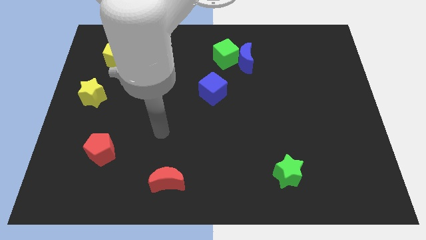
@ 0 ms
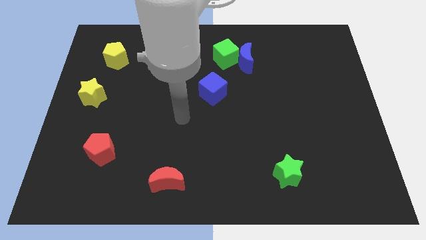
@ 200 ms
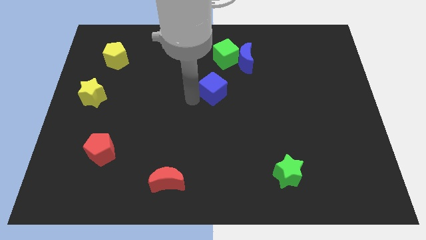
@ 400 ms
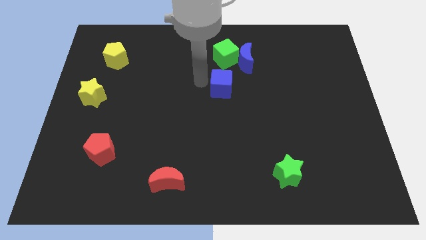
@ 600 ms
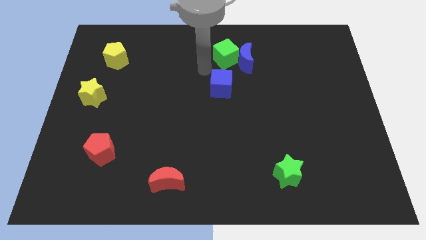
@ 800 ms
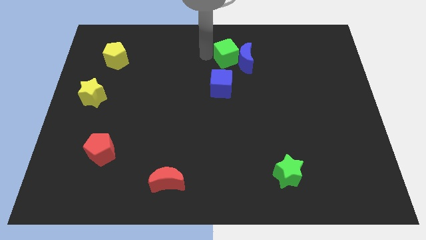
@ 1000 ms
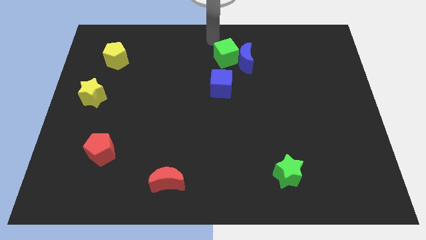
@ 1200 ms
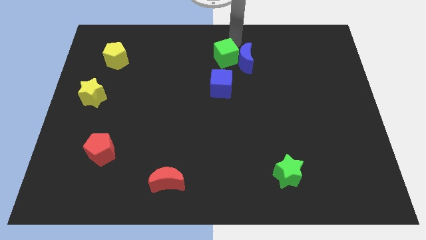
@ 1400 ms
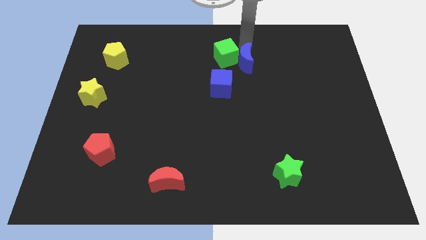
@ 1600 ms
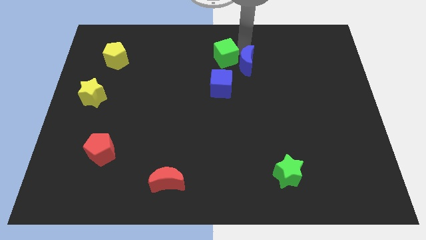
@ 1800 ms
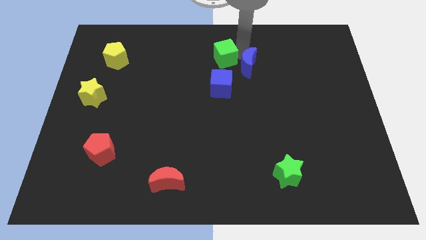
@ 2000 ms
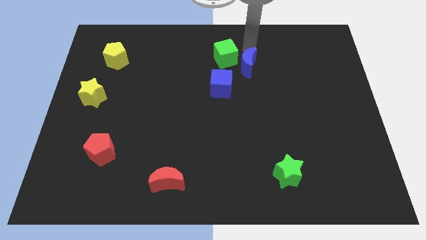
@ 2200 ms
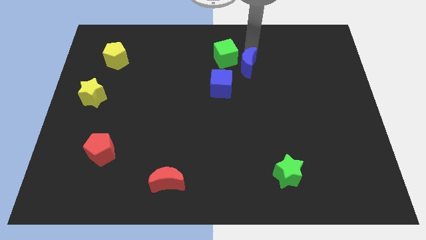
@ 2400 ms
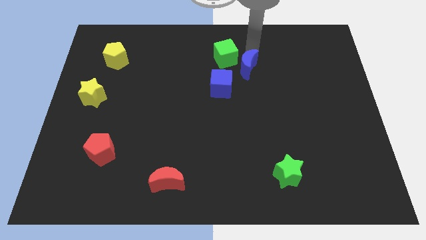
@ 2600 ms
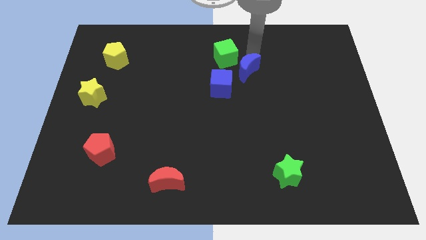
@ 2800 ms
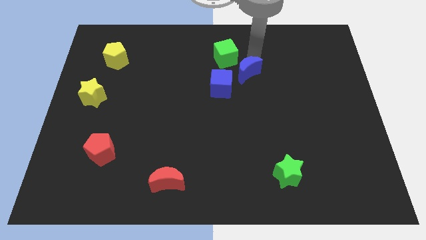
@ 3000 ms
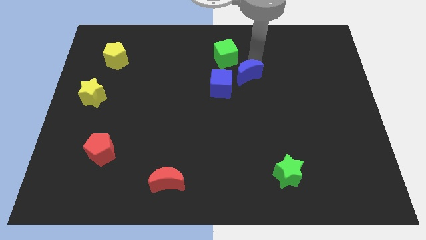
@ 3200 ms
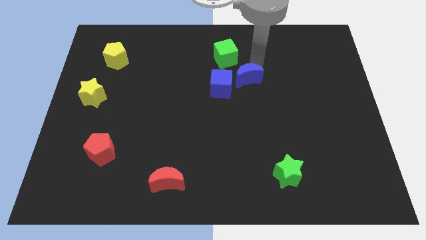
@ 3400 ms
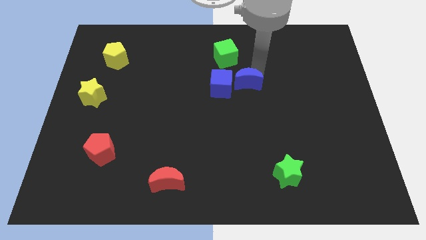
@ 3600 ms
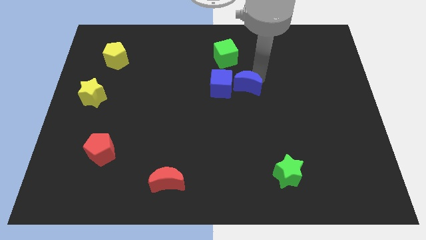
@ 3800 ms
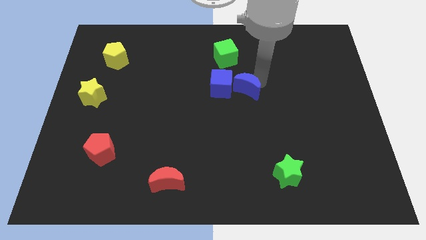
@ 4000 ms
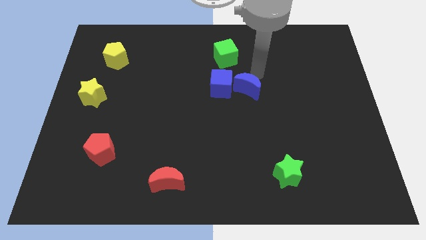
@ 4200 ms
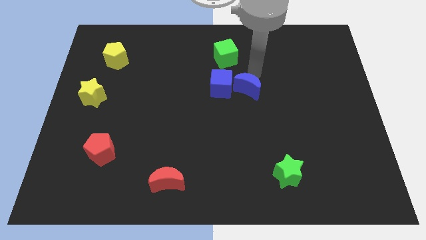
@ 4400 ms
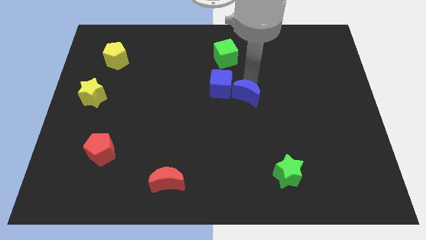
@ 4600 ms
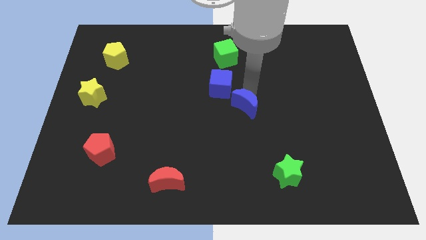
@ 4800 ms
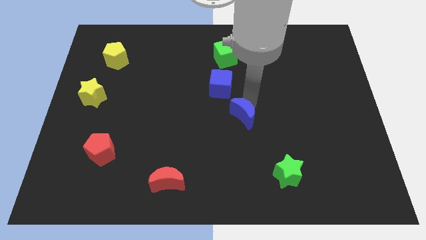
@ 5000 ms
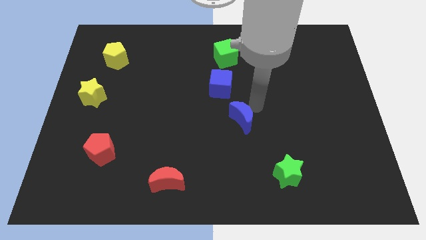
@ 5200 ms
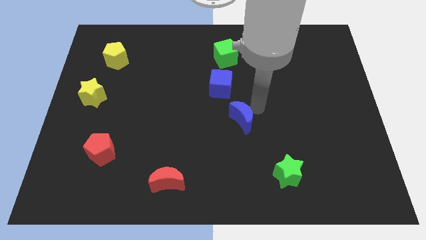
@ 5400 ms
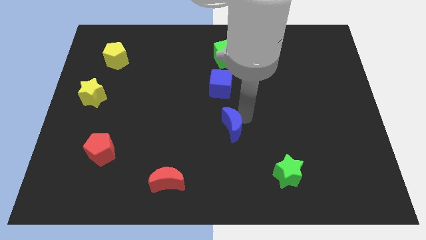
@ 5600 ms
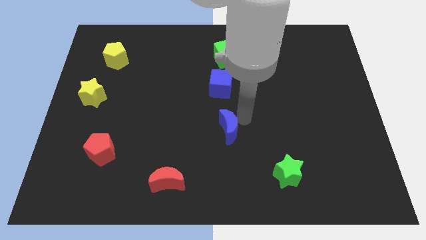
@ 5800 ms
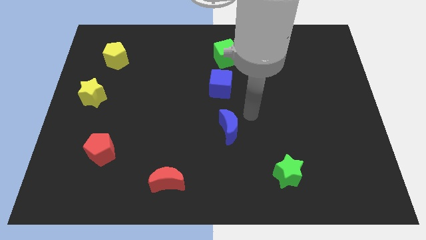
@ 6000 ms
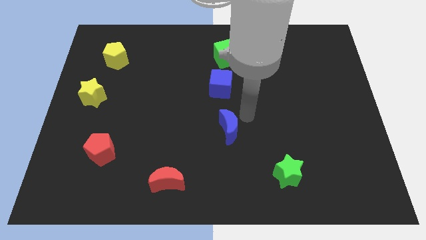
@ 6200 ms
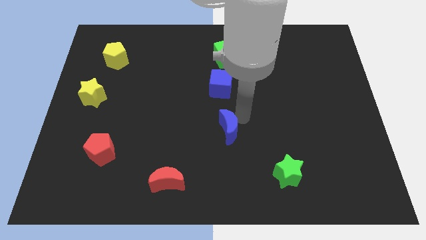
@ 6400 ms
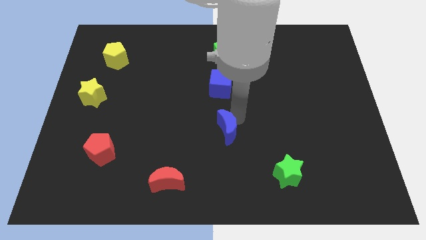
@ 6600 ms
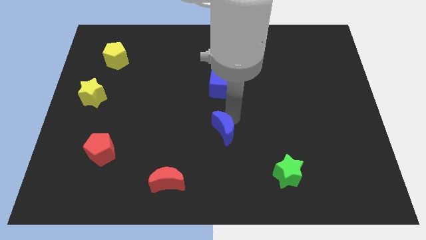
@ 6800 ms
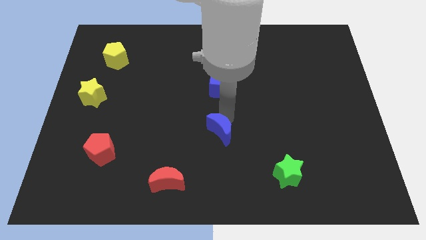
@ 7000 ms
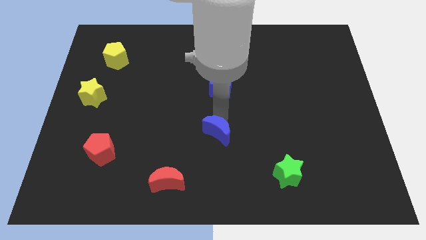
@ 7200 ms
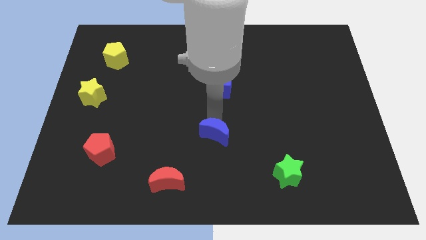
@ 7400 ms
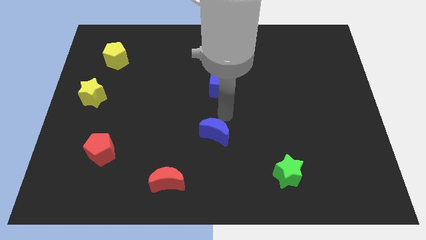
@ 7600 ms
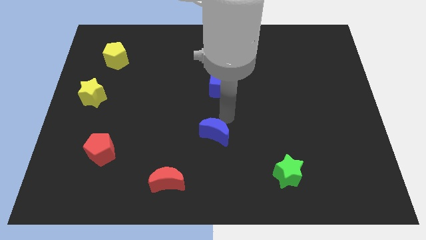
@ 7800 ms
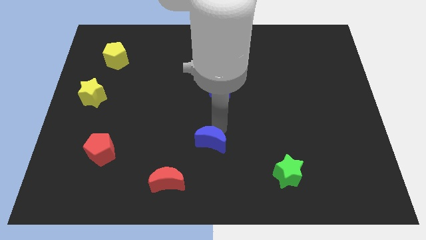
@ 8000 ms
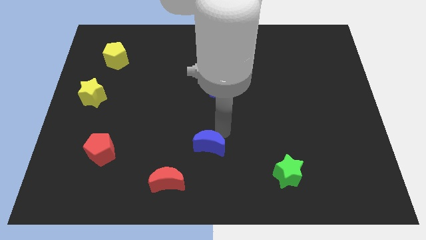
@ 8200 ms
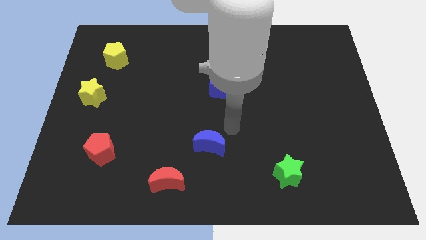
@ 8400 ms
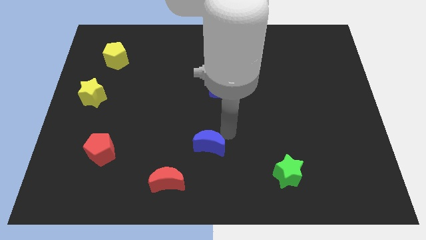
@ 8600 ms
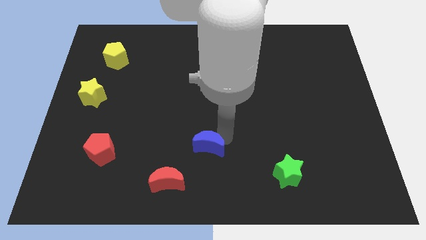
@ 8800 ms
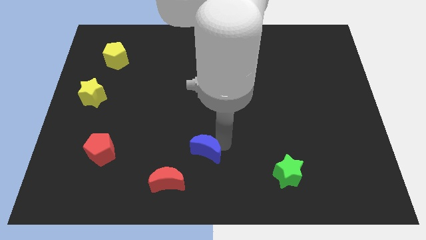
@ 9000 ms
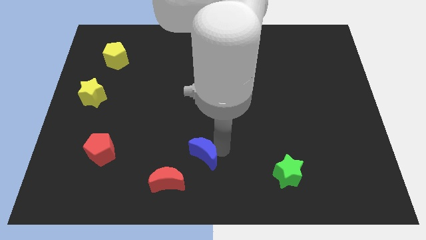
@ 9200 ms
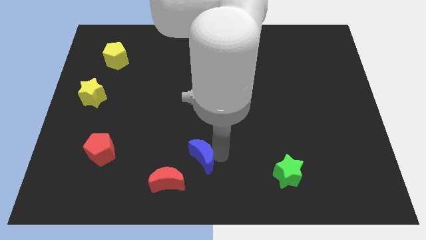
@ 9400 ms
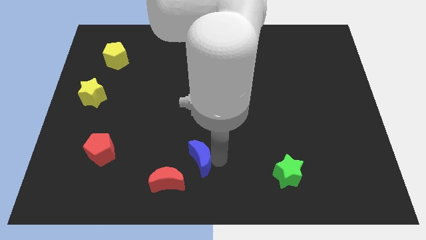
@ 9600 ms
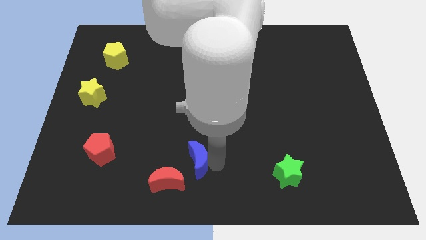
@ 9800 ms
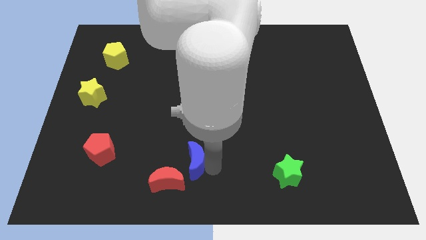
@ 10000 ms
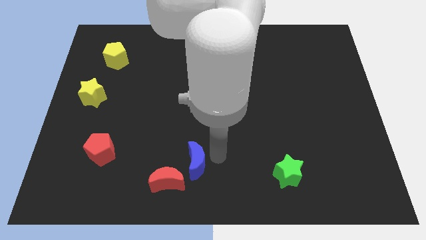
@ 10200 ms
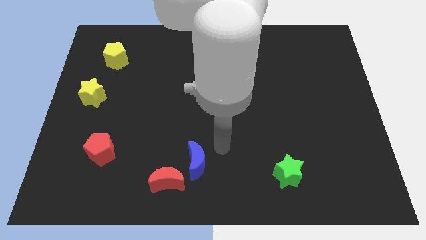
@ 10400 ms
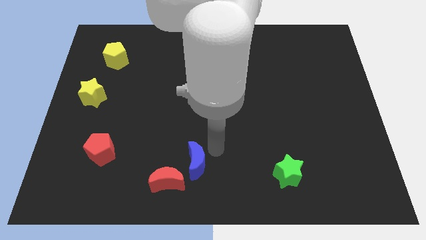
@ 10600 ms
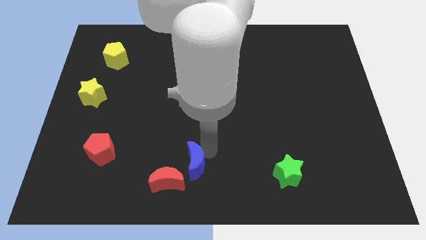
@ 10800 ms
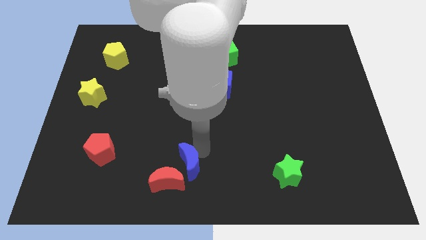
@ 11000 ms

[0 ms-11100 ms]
put the blue moon to the red moon

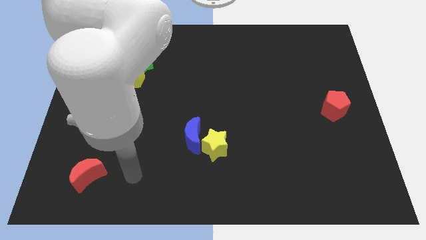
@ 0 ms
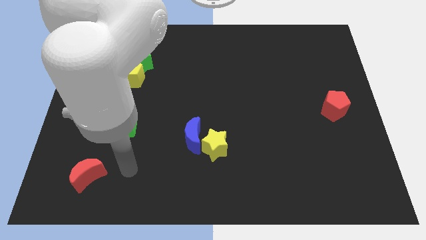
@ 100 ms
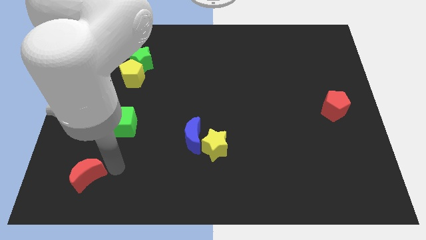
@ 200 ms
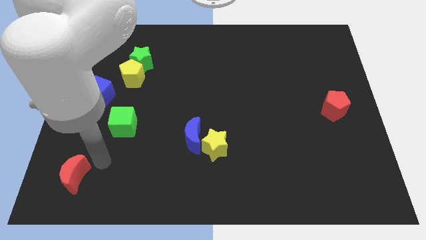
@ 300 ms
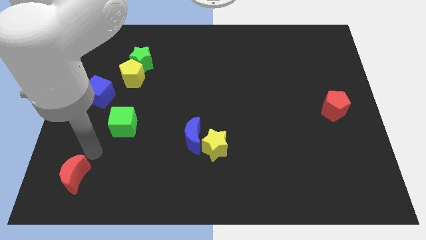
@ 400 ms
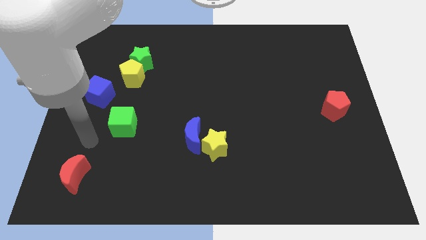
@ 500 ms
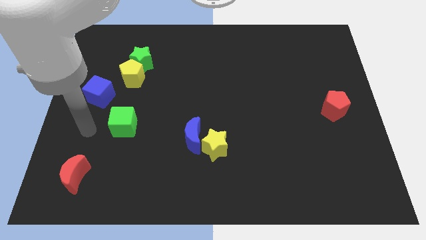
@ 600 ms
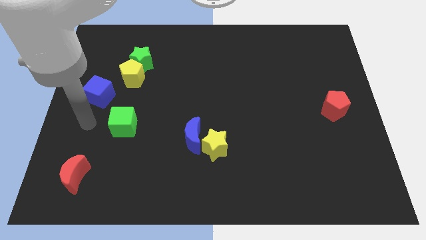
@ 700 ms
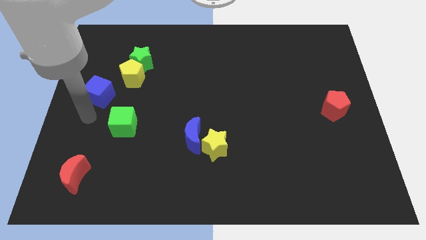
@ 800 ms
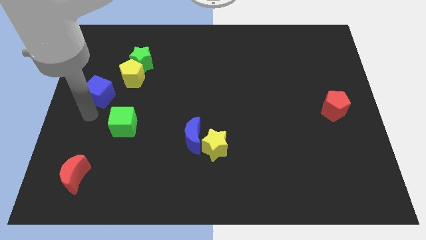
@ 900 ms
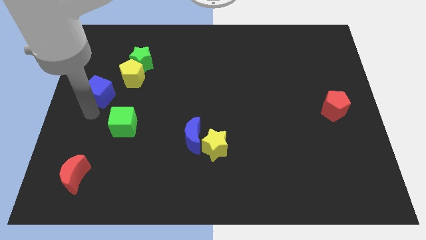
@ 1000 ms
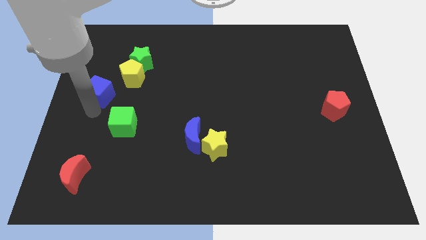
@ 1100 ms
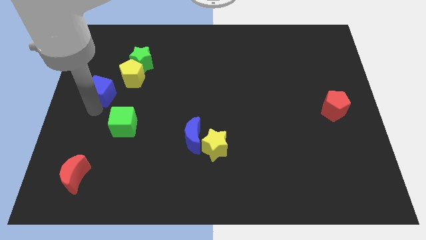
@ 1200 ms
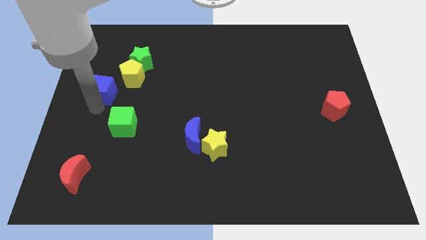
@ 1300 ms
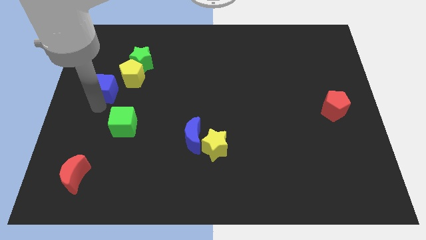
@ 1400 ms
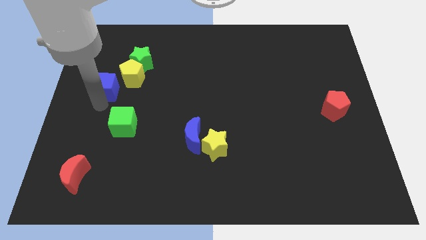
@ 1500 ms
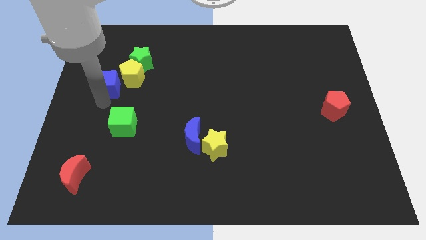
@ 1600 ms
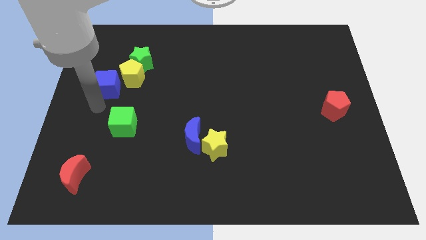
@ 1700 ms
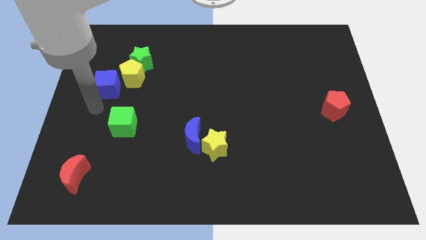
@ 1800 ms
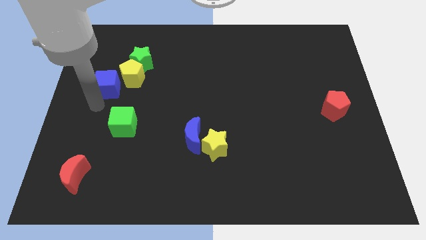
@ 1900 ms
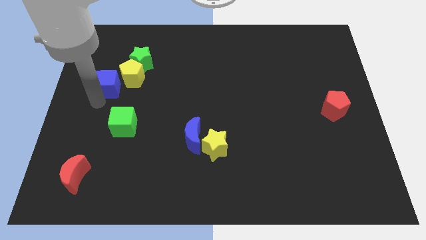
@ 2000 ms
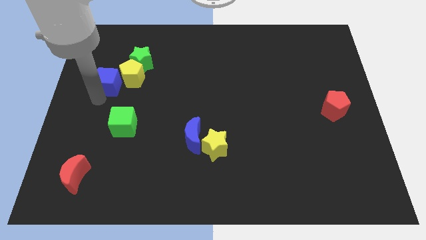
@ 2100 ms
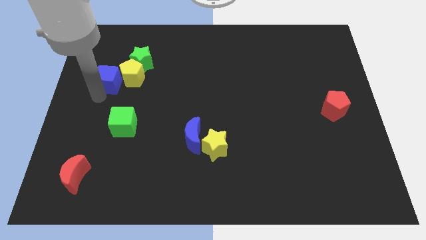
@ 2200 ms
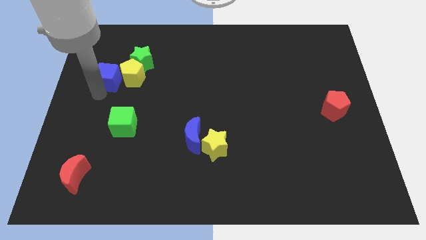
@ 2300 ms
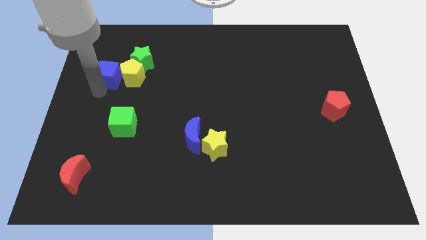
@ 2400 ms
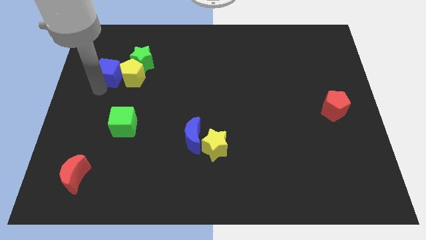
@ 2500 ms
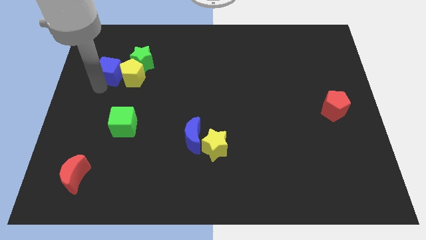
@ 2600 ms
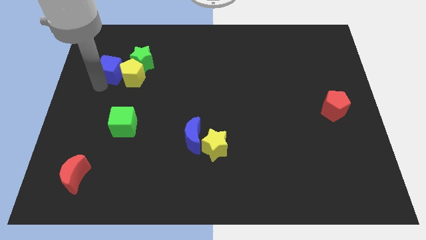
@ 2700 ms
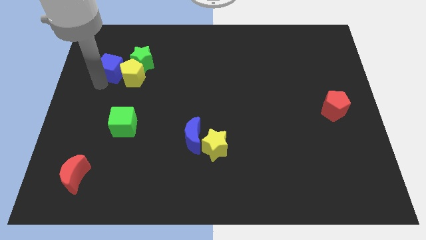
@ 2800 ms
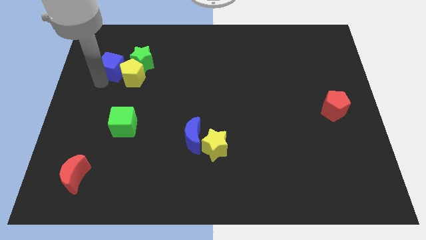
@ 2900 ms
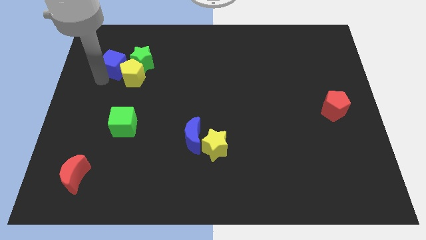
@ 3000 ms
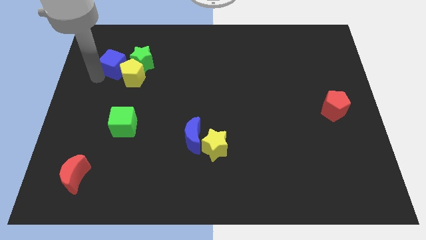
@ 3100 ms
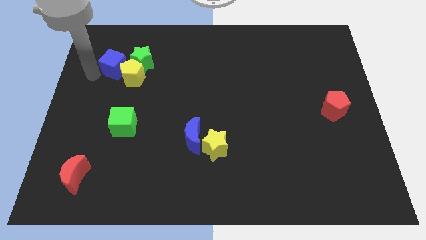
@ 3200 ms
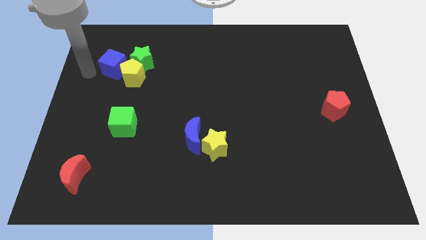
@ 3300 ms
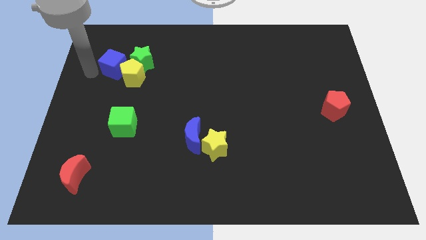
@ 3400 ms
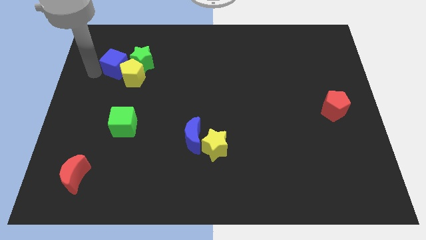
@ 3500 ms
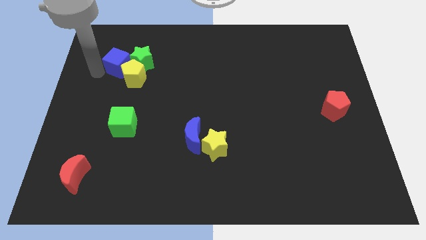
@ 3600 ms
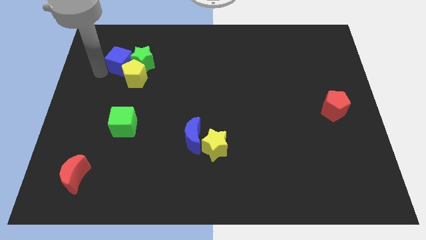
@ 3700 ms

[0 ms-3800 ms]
put the blue cube to the green star
